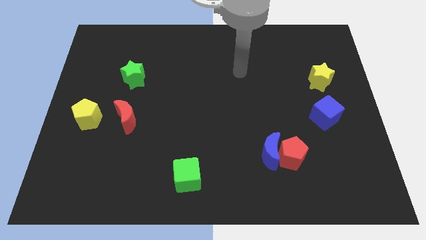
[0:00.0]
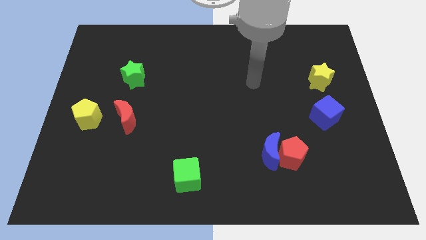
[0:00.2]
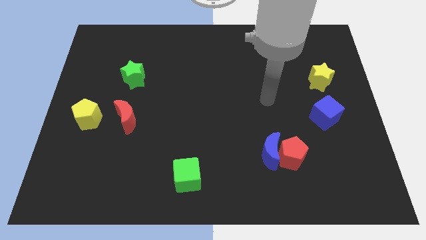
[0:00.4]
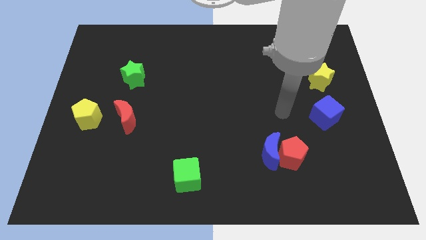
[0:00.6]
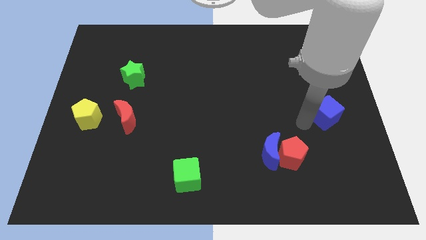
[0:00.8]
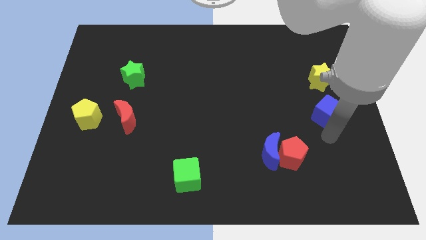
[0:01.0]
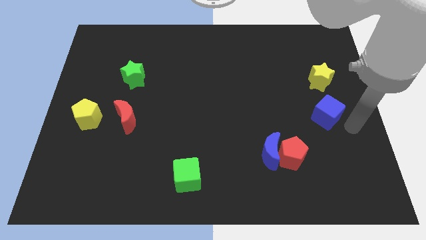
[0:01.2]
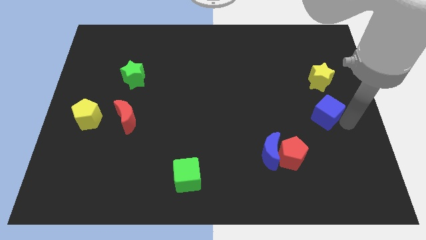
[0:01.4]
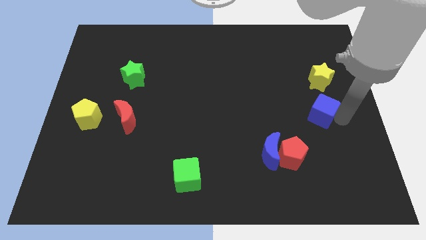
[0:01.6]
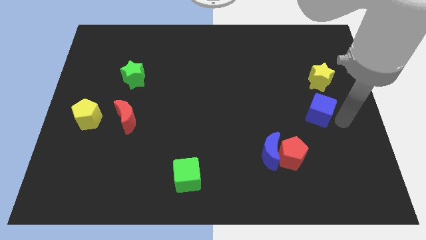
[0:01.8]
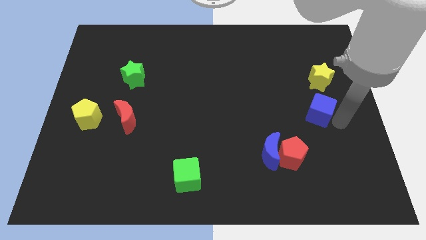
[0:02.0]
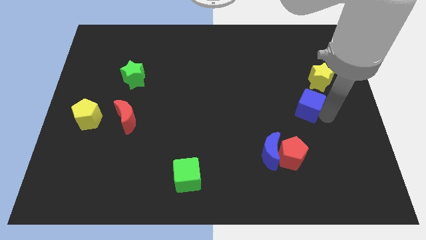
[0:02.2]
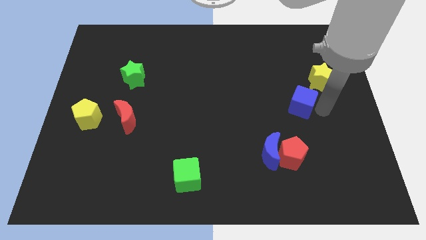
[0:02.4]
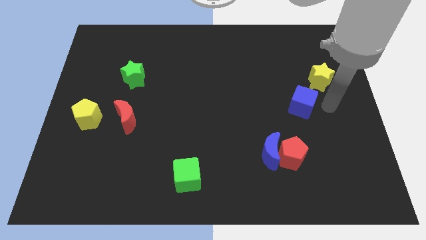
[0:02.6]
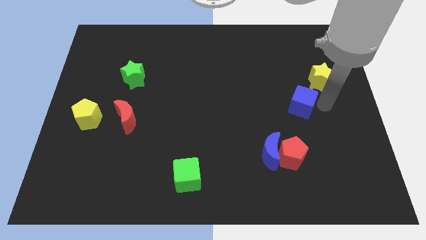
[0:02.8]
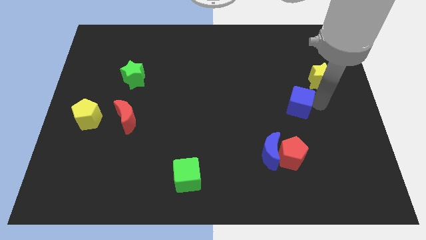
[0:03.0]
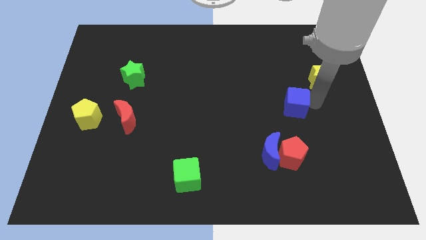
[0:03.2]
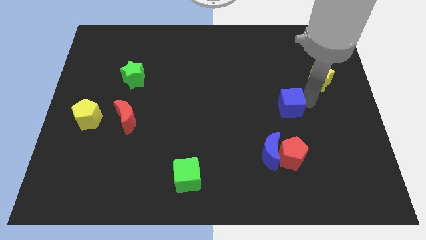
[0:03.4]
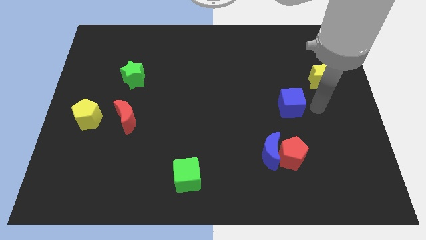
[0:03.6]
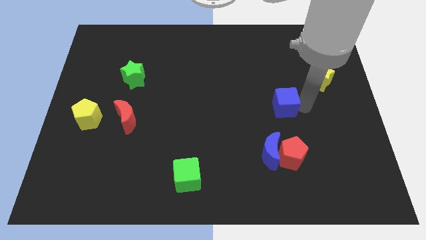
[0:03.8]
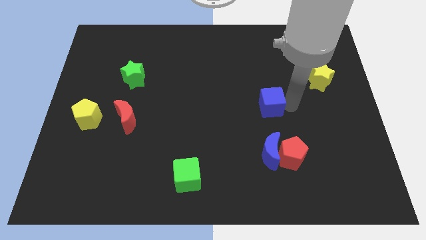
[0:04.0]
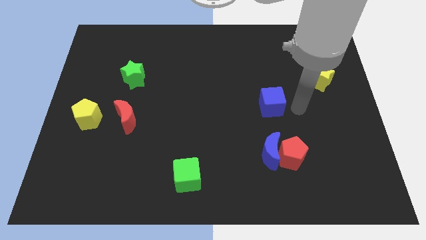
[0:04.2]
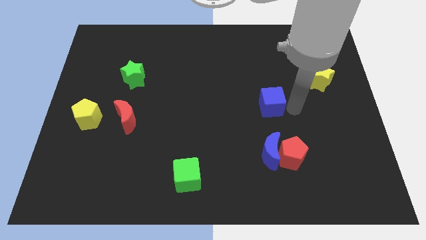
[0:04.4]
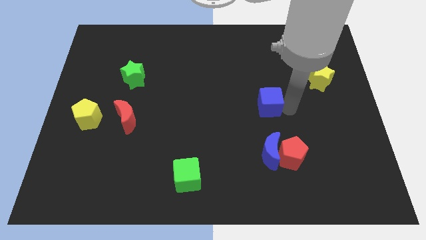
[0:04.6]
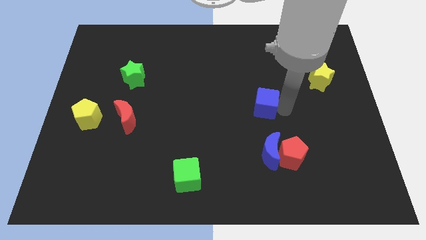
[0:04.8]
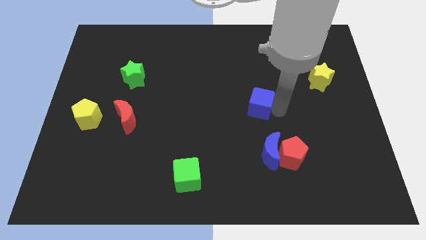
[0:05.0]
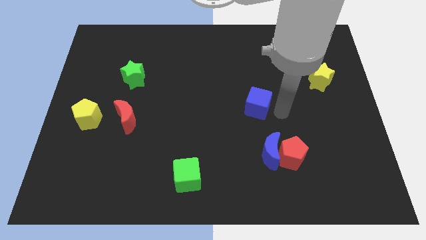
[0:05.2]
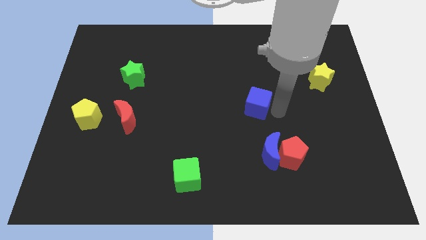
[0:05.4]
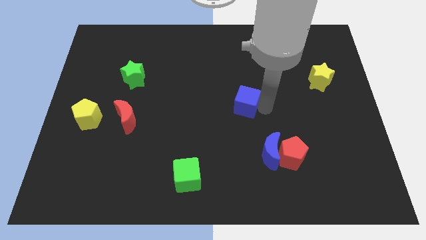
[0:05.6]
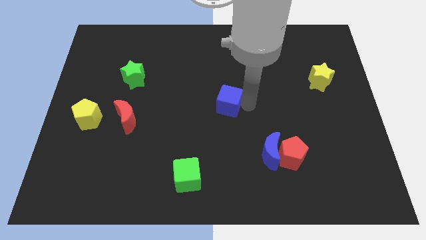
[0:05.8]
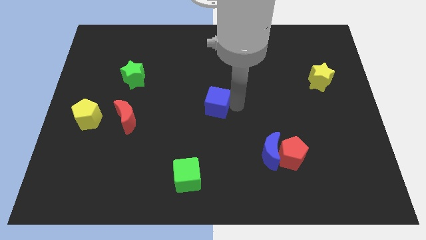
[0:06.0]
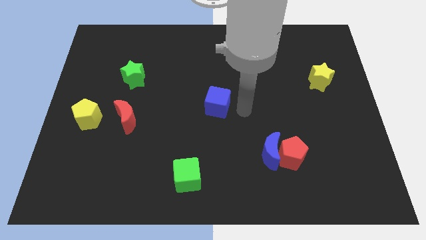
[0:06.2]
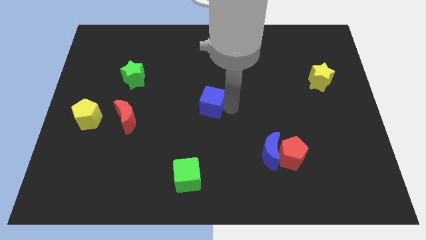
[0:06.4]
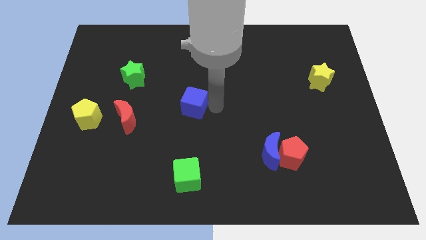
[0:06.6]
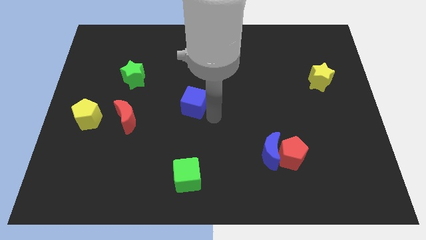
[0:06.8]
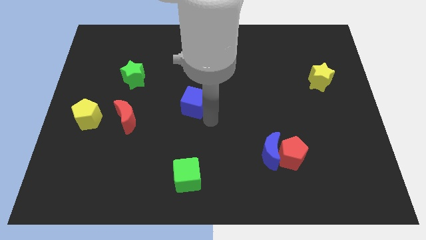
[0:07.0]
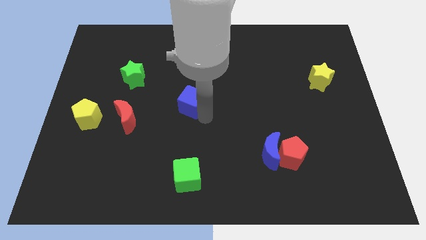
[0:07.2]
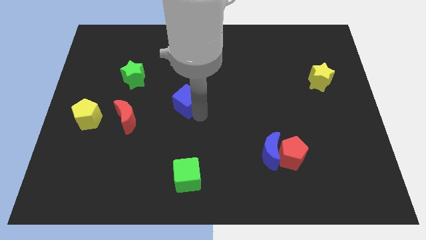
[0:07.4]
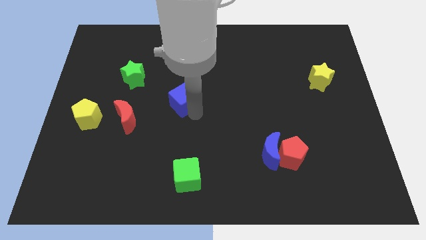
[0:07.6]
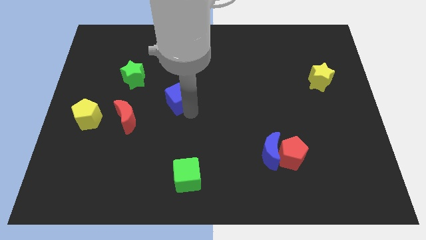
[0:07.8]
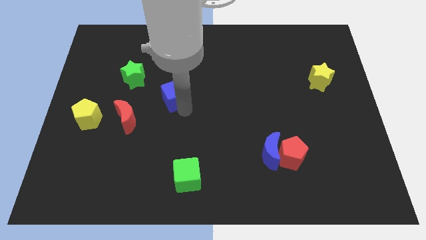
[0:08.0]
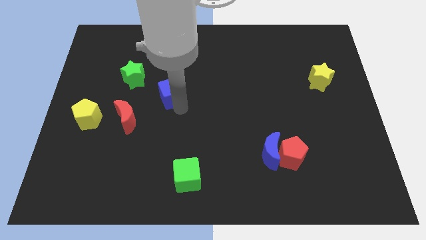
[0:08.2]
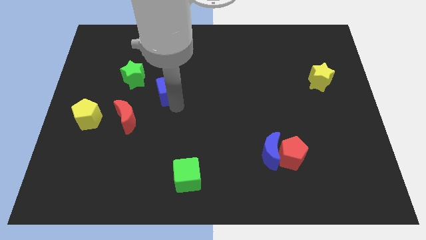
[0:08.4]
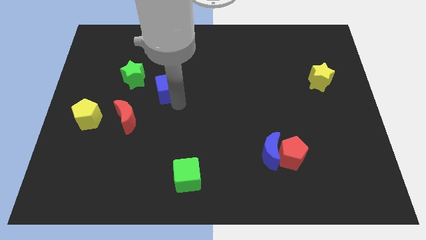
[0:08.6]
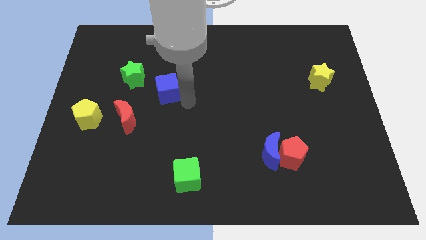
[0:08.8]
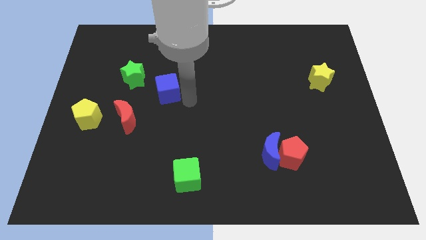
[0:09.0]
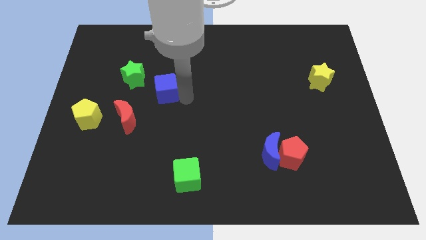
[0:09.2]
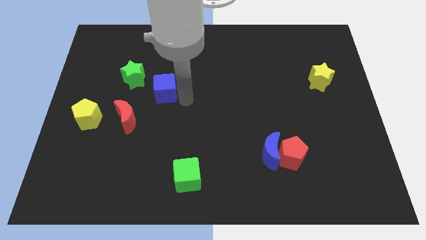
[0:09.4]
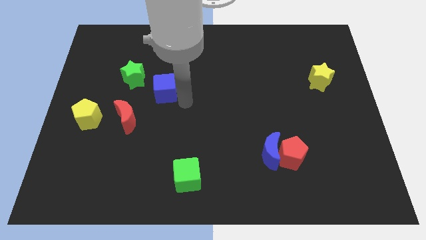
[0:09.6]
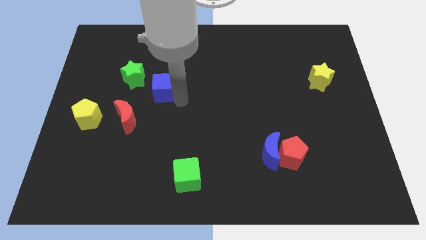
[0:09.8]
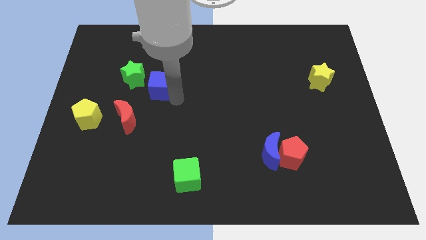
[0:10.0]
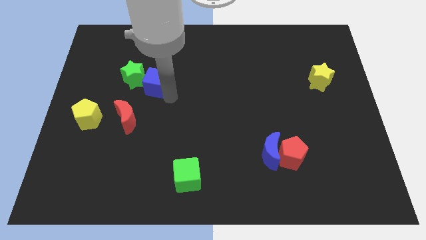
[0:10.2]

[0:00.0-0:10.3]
push the blue cube close to the green star
